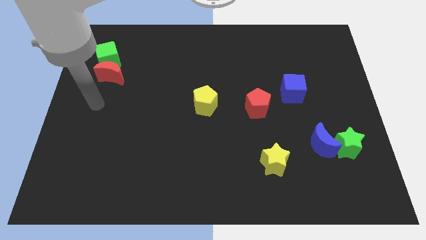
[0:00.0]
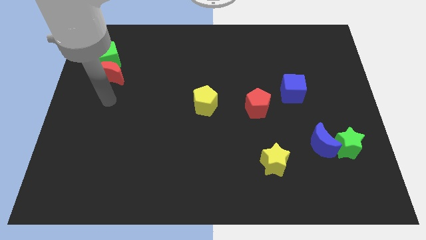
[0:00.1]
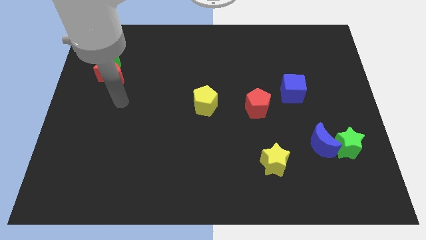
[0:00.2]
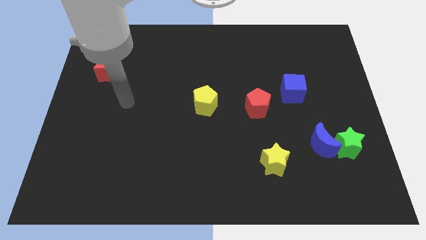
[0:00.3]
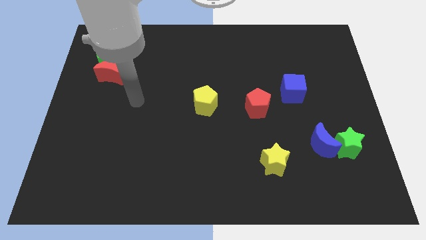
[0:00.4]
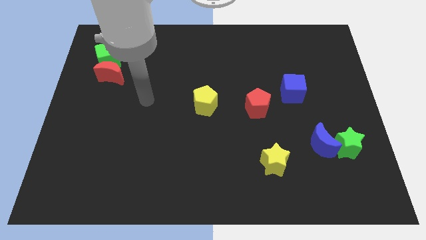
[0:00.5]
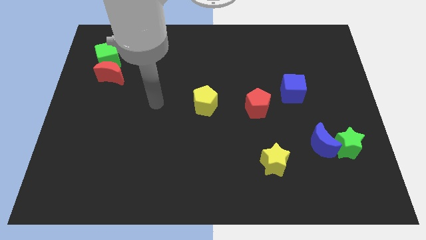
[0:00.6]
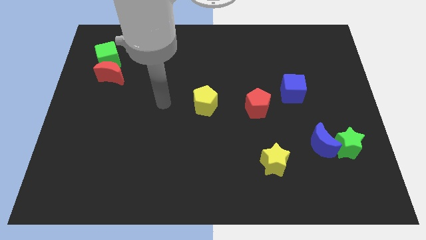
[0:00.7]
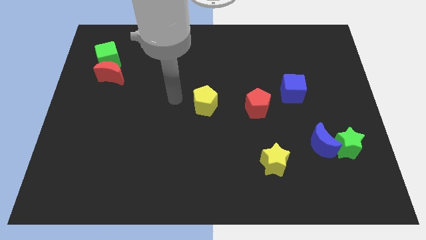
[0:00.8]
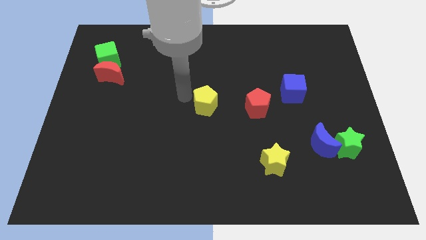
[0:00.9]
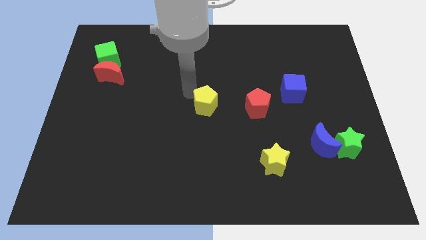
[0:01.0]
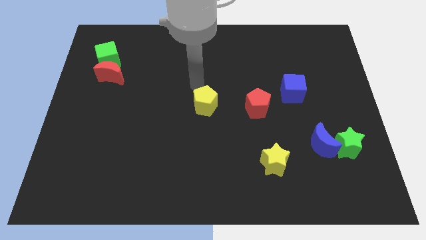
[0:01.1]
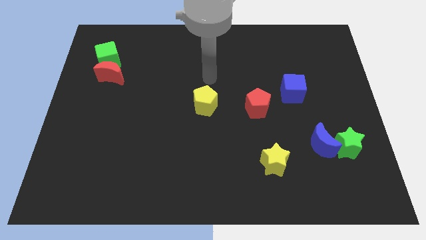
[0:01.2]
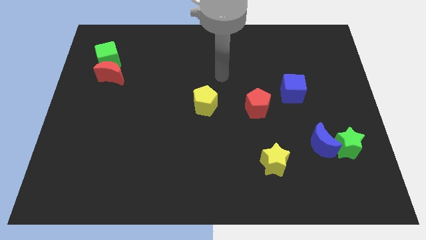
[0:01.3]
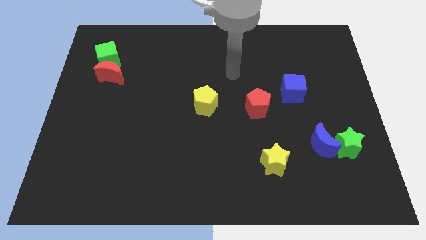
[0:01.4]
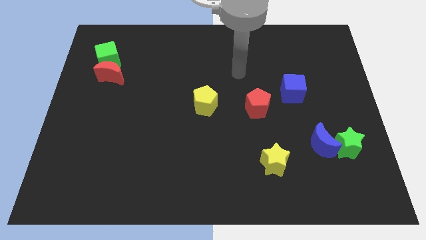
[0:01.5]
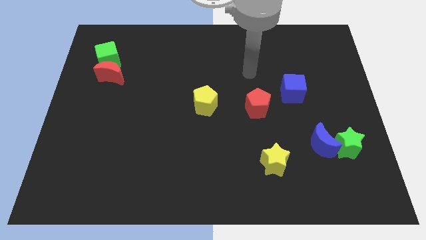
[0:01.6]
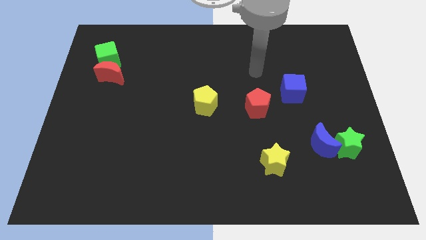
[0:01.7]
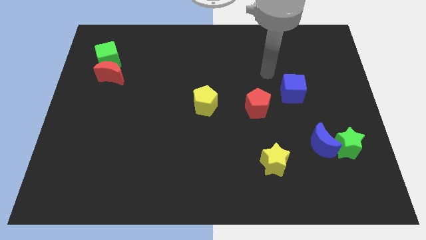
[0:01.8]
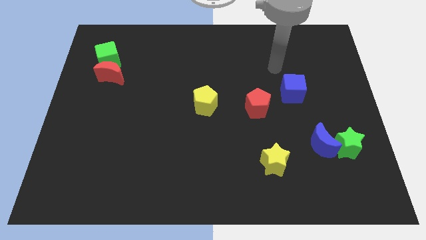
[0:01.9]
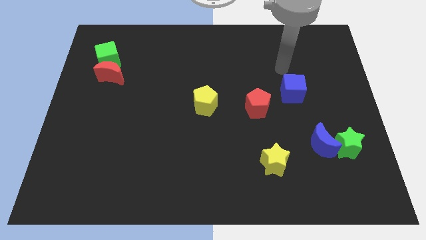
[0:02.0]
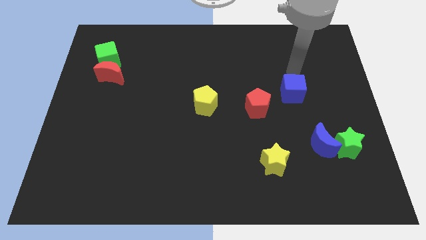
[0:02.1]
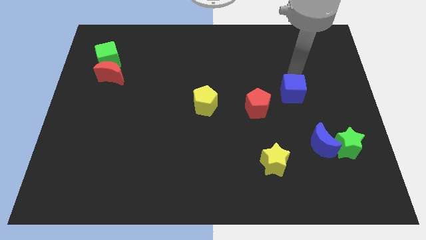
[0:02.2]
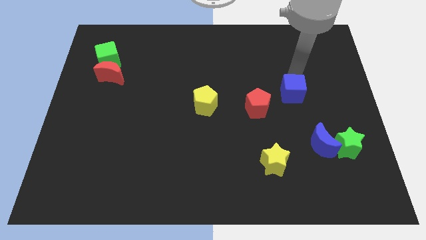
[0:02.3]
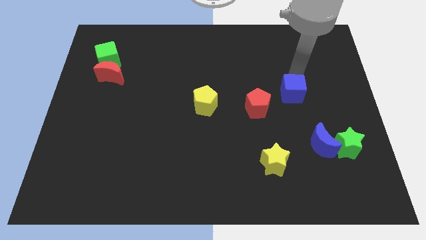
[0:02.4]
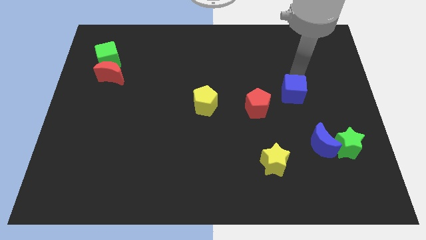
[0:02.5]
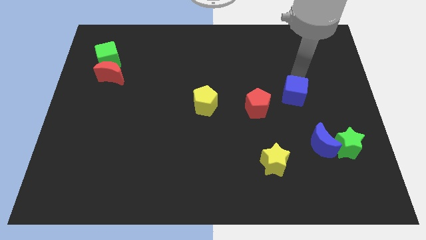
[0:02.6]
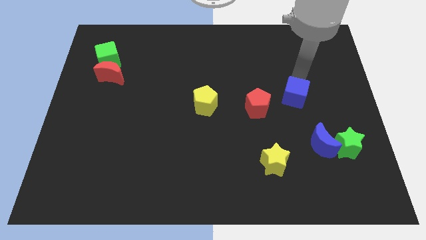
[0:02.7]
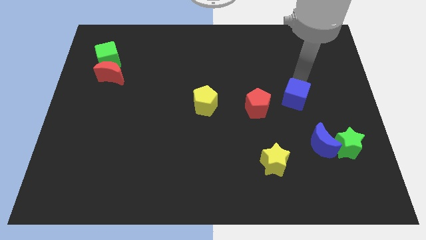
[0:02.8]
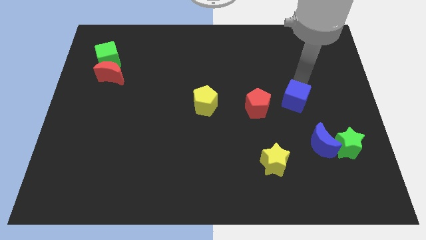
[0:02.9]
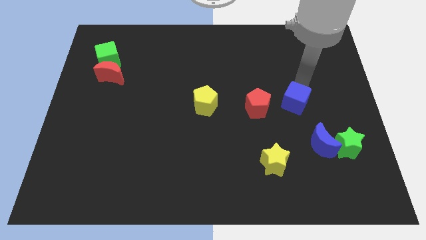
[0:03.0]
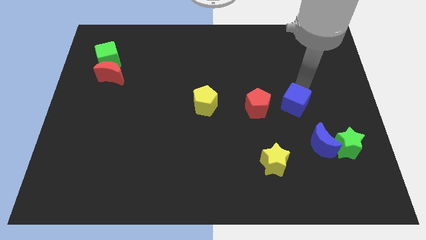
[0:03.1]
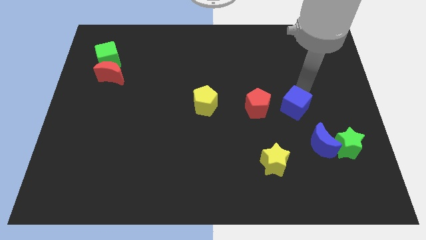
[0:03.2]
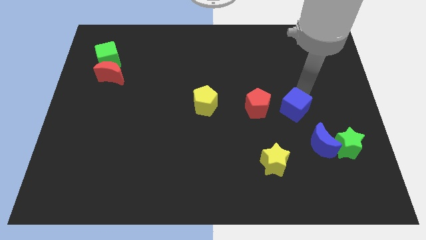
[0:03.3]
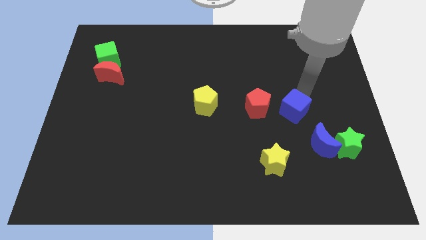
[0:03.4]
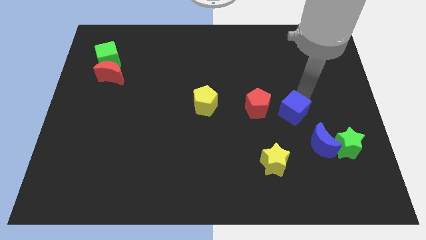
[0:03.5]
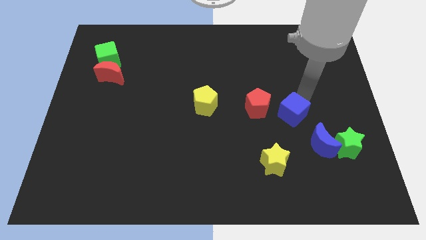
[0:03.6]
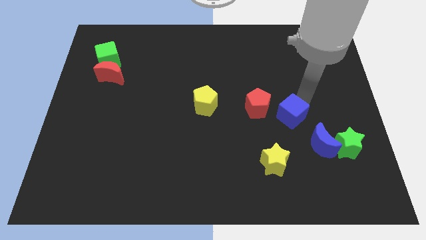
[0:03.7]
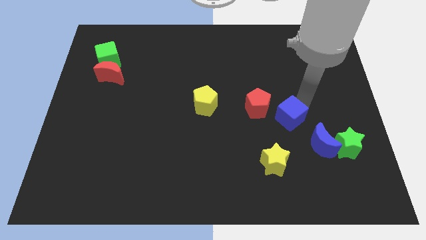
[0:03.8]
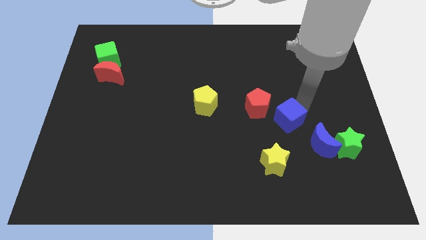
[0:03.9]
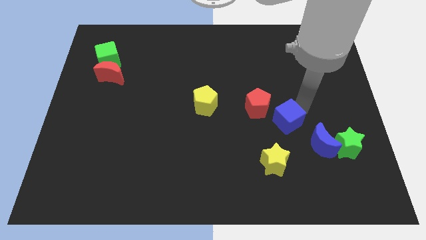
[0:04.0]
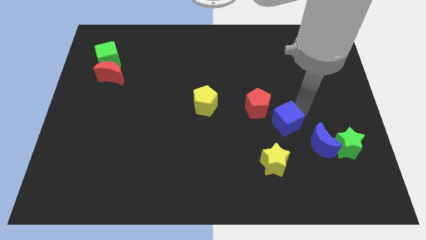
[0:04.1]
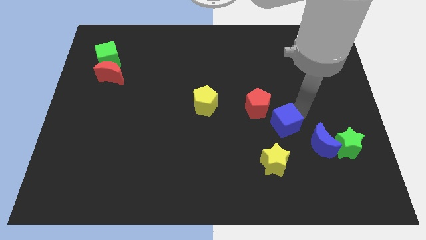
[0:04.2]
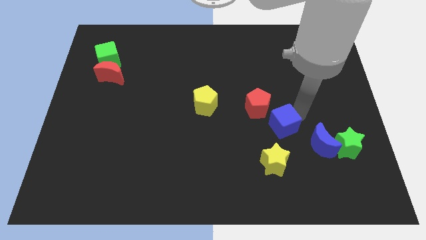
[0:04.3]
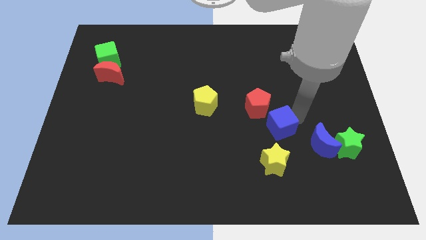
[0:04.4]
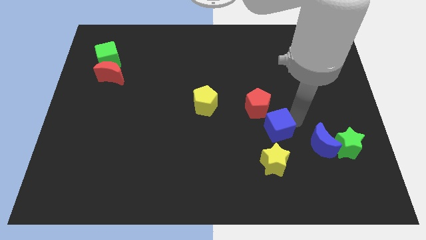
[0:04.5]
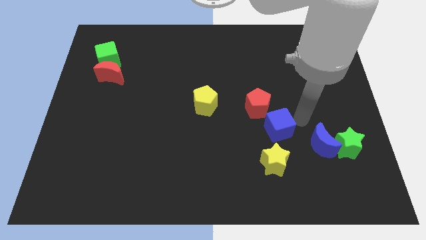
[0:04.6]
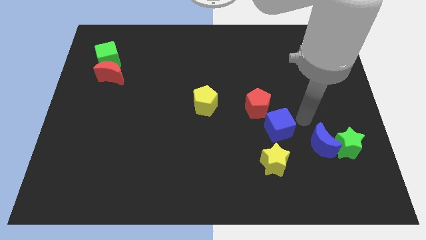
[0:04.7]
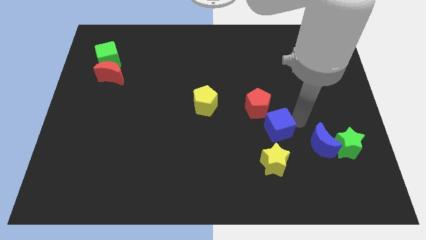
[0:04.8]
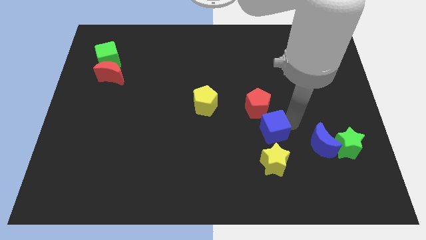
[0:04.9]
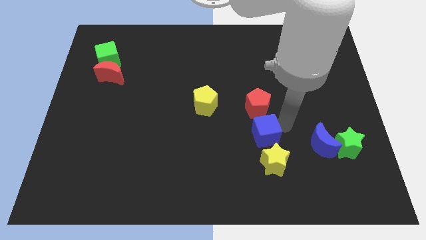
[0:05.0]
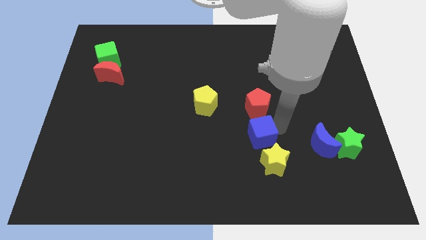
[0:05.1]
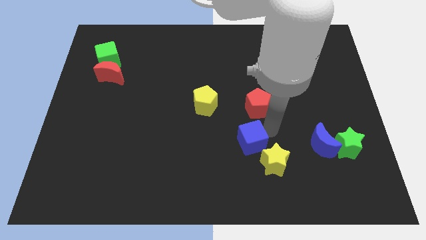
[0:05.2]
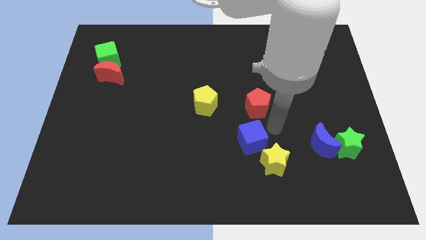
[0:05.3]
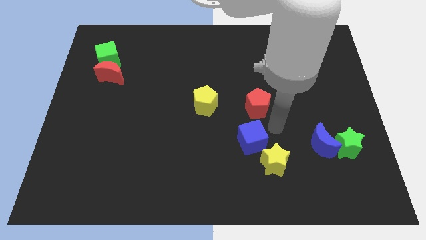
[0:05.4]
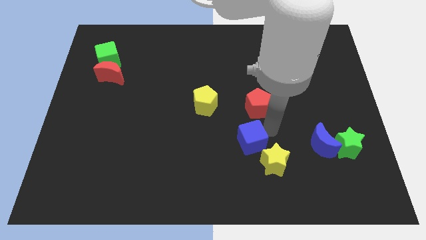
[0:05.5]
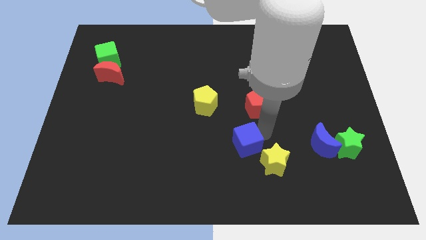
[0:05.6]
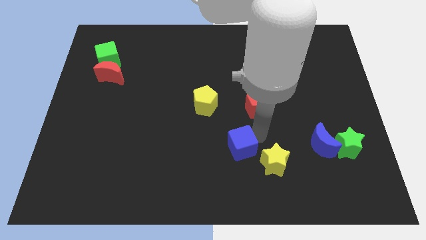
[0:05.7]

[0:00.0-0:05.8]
slide the blue cube diagonally down and to the left

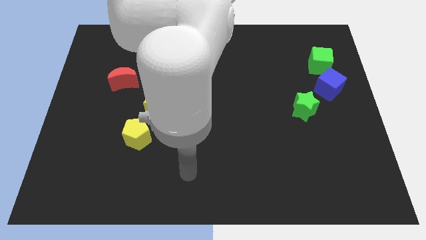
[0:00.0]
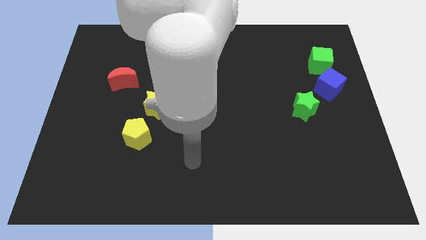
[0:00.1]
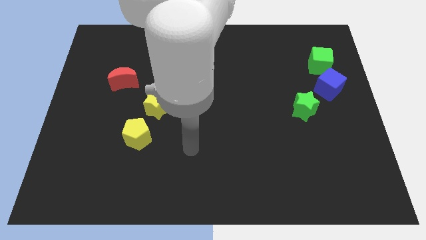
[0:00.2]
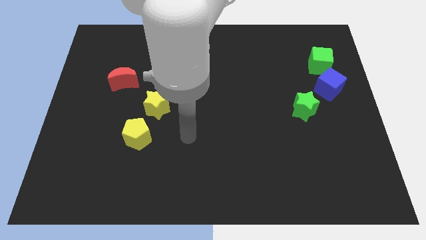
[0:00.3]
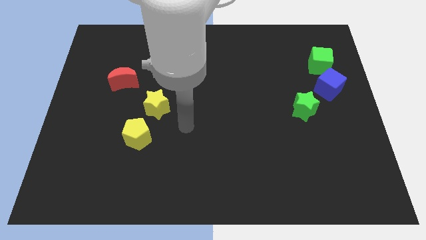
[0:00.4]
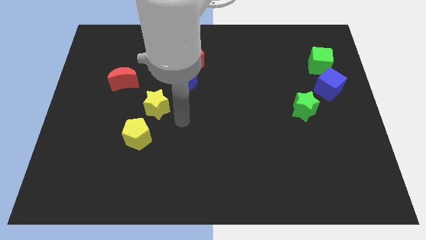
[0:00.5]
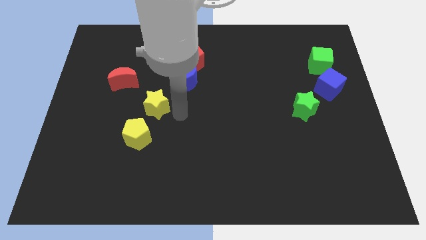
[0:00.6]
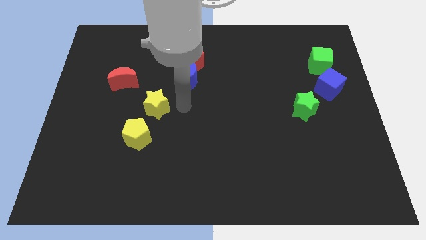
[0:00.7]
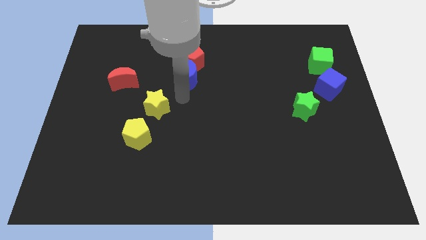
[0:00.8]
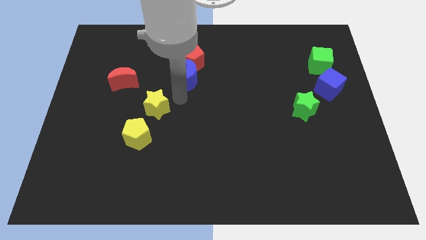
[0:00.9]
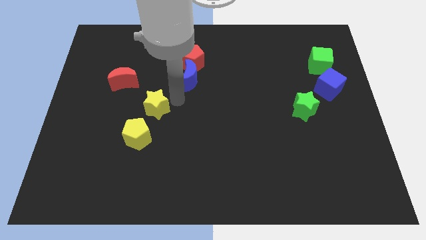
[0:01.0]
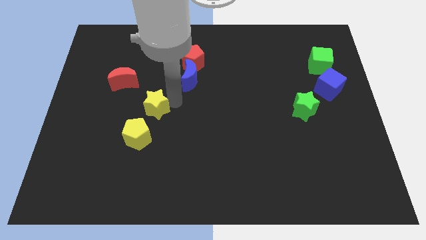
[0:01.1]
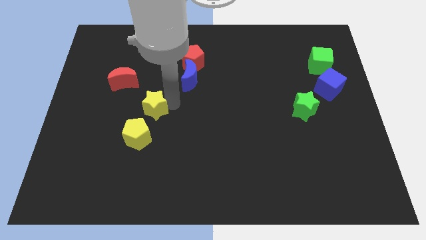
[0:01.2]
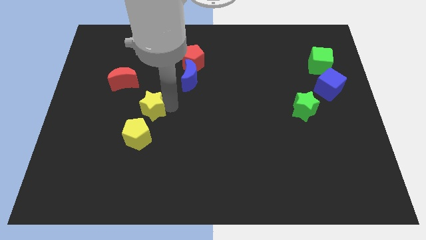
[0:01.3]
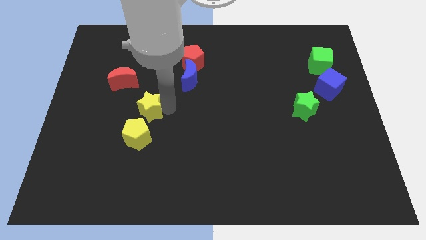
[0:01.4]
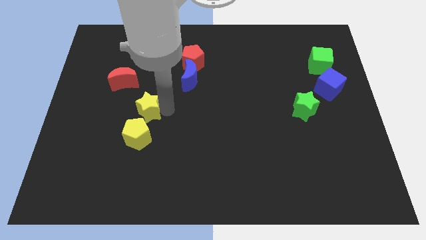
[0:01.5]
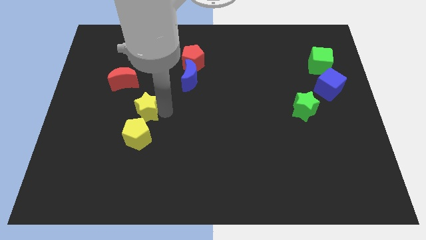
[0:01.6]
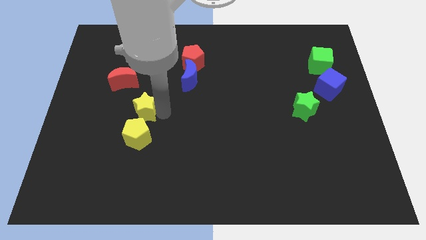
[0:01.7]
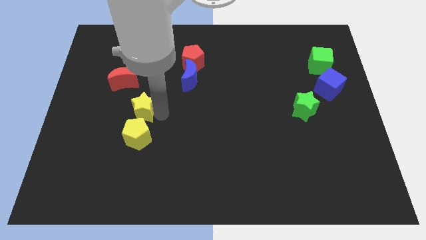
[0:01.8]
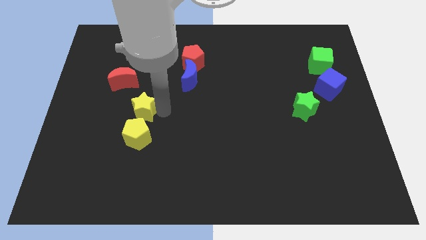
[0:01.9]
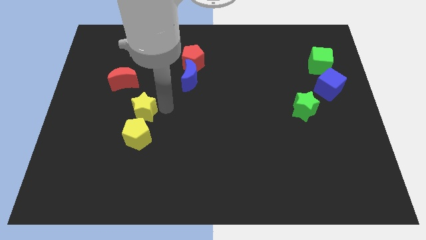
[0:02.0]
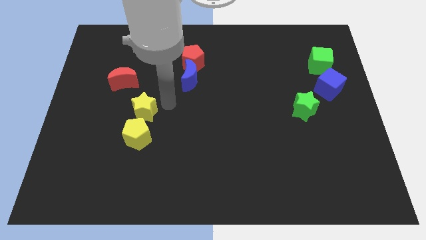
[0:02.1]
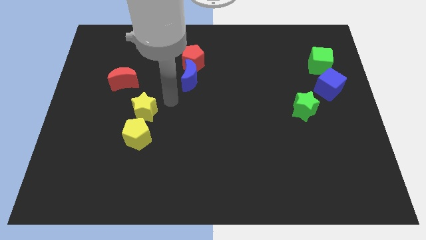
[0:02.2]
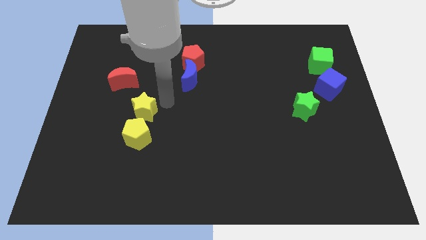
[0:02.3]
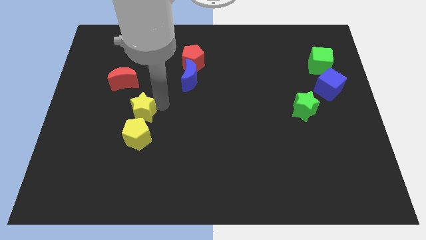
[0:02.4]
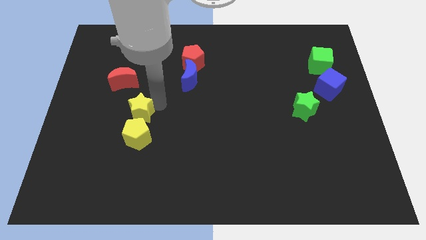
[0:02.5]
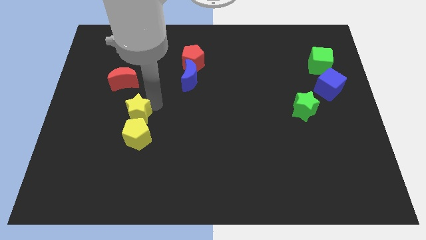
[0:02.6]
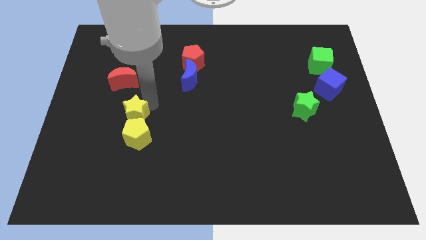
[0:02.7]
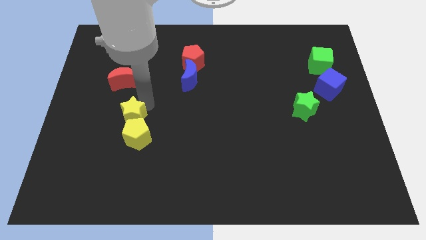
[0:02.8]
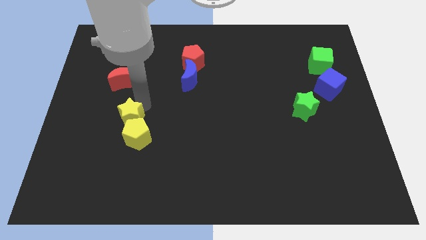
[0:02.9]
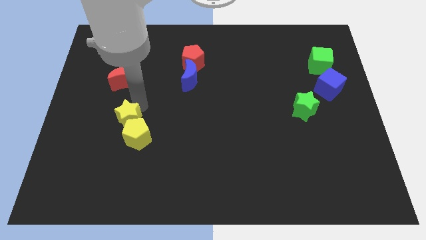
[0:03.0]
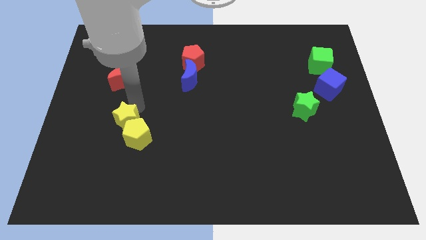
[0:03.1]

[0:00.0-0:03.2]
slightly push the yellow star down and left
